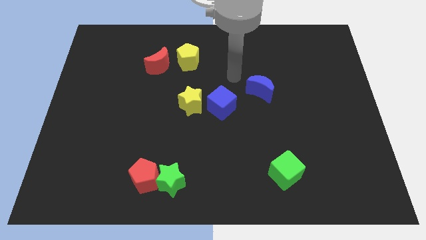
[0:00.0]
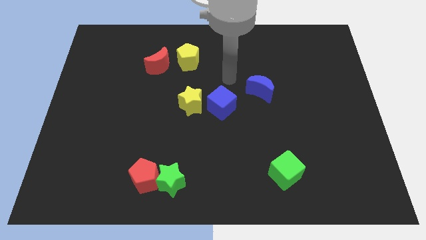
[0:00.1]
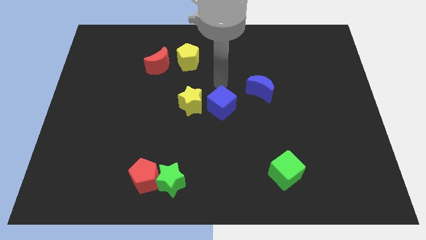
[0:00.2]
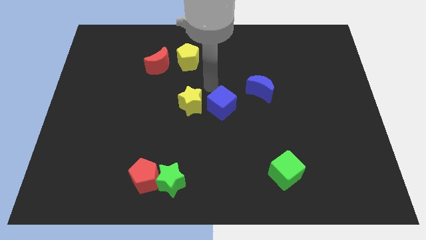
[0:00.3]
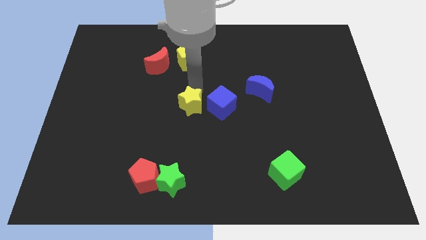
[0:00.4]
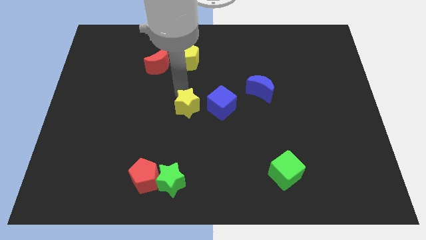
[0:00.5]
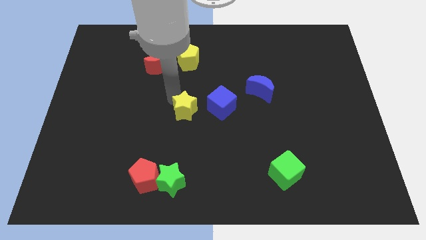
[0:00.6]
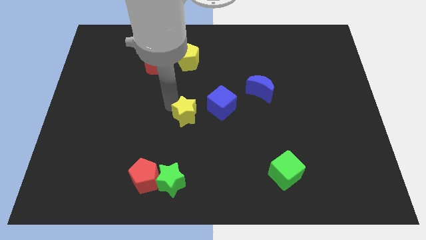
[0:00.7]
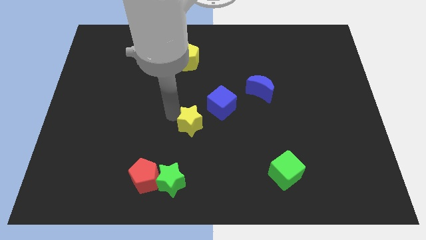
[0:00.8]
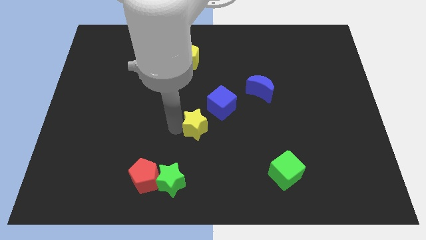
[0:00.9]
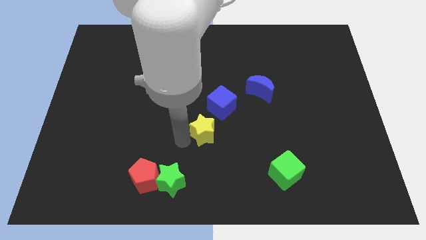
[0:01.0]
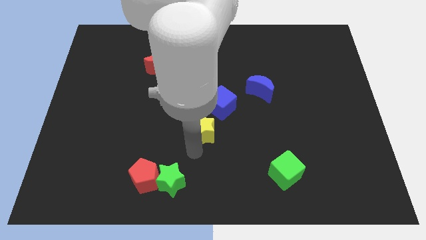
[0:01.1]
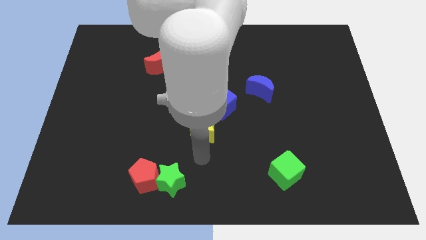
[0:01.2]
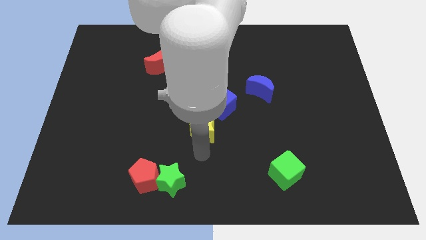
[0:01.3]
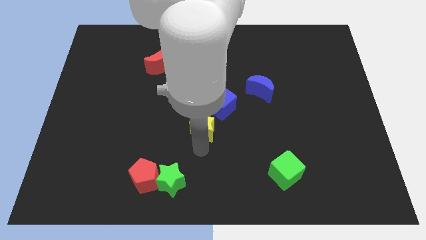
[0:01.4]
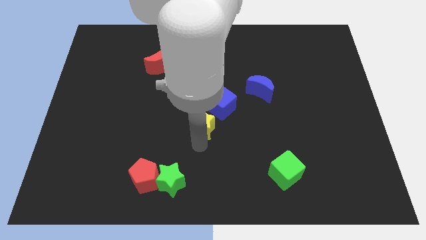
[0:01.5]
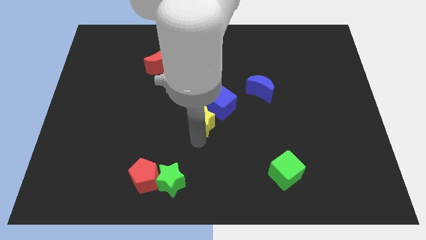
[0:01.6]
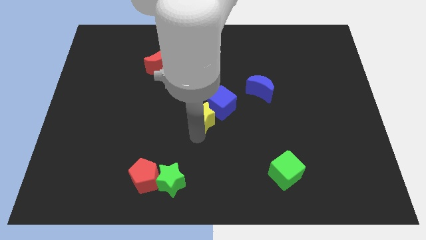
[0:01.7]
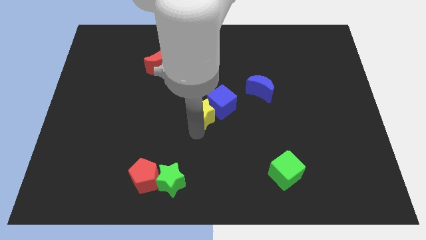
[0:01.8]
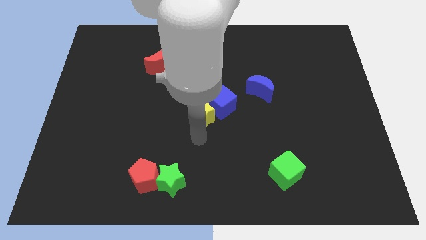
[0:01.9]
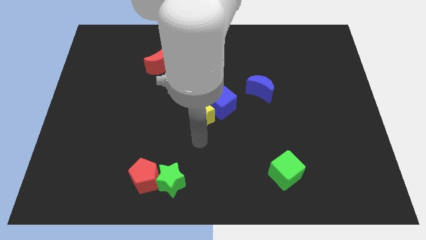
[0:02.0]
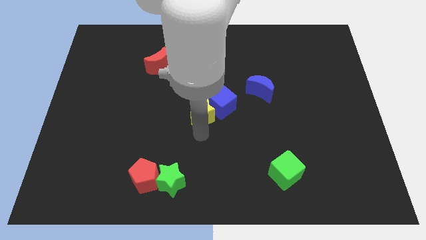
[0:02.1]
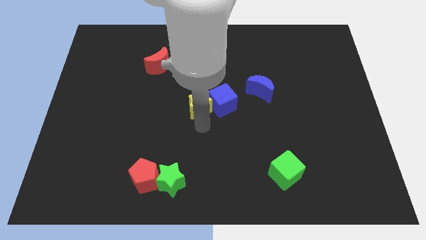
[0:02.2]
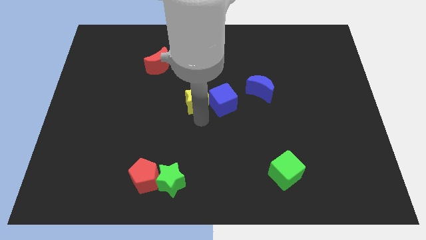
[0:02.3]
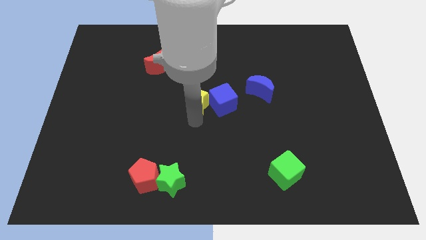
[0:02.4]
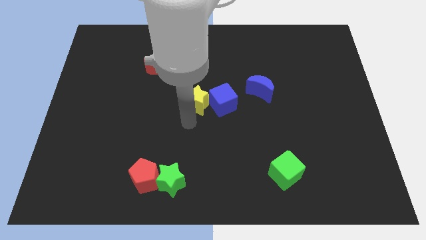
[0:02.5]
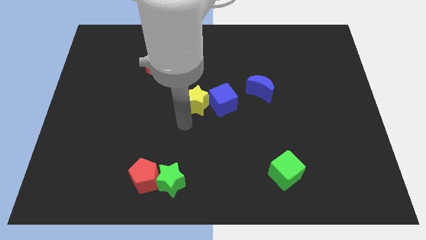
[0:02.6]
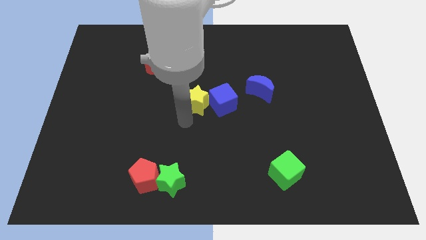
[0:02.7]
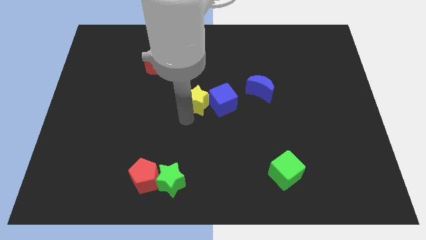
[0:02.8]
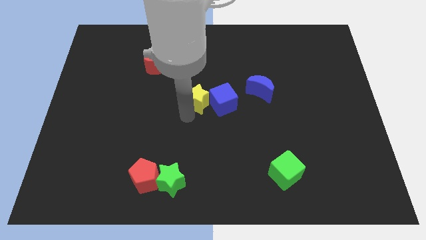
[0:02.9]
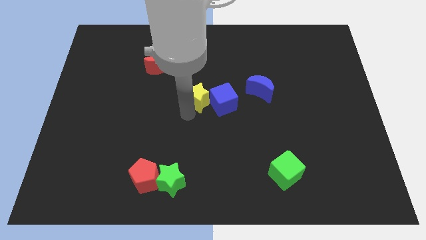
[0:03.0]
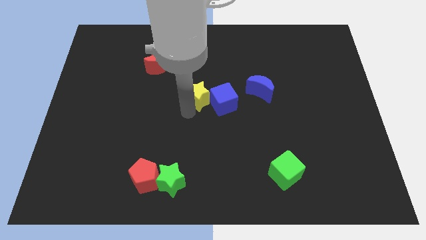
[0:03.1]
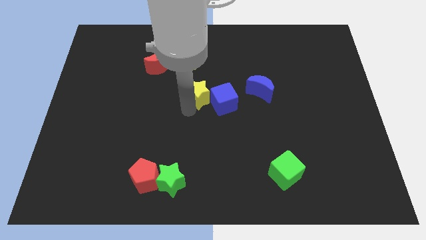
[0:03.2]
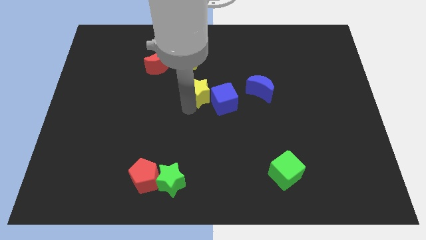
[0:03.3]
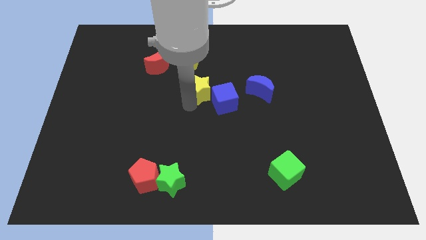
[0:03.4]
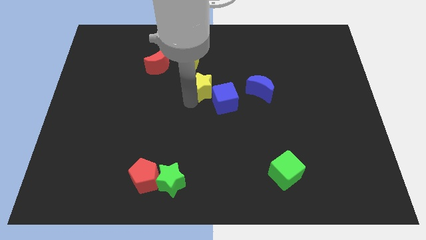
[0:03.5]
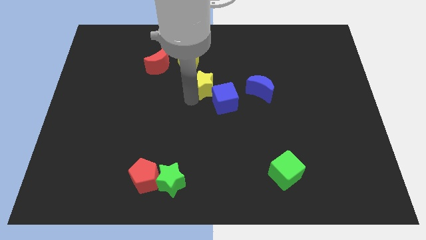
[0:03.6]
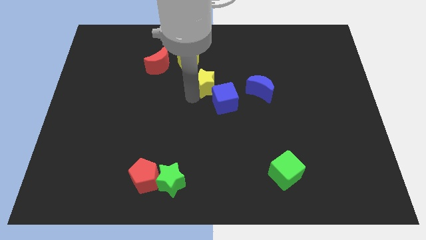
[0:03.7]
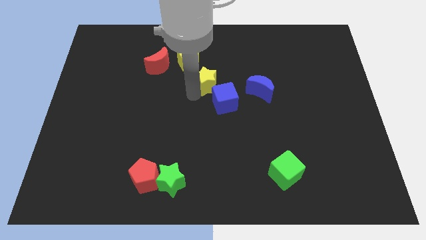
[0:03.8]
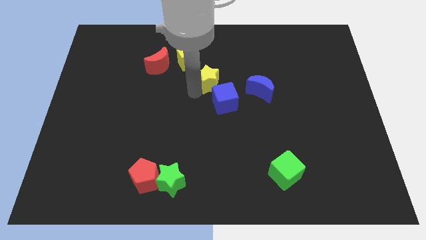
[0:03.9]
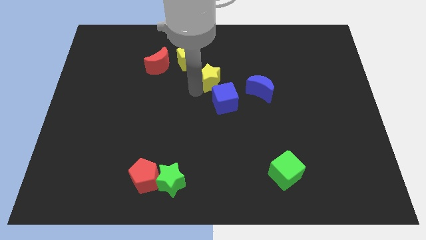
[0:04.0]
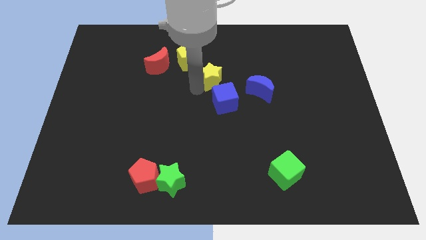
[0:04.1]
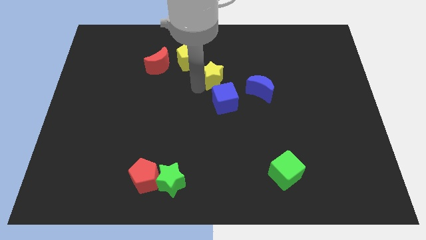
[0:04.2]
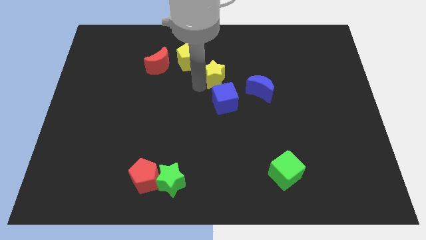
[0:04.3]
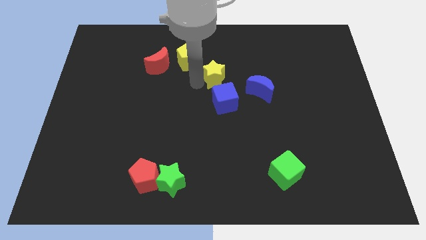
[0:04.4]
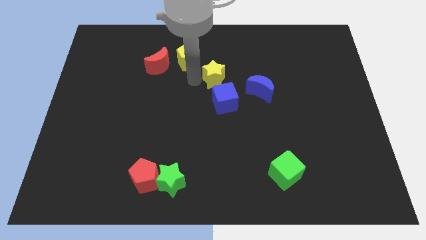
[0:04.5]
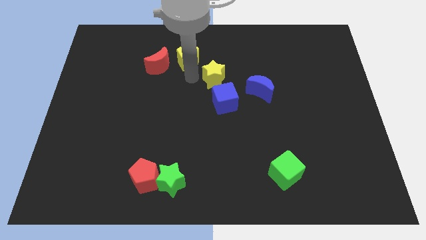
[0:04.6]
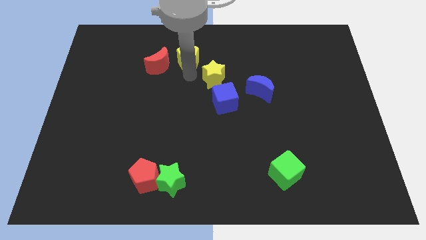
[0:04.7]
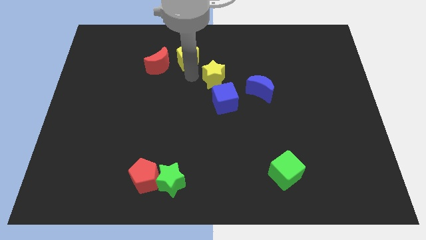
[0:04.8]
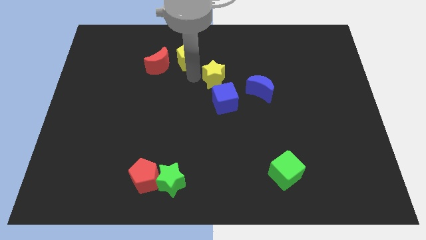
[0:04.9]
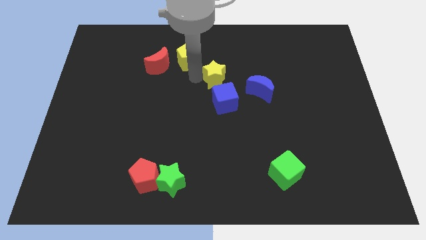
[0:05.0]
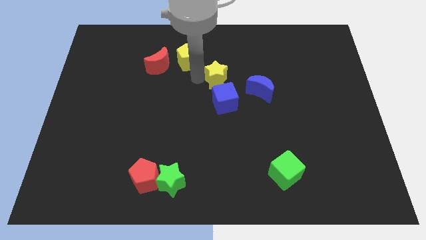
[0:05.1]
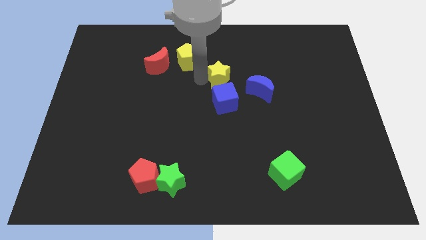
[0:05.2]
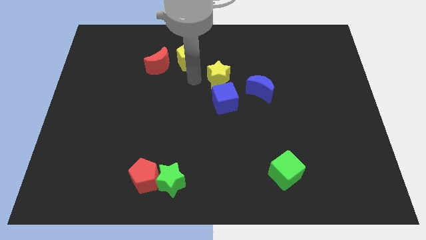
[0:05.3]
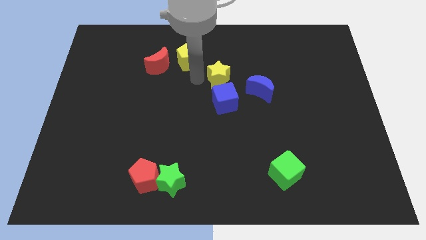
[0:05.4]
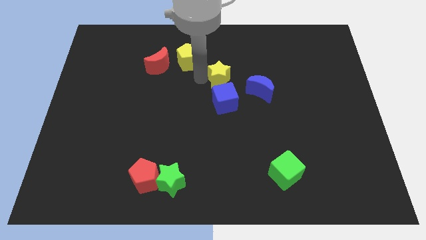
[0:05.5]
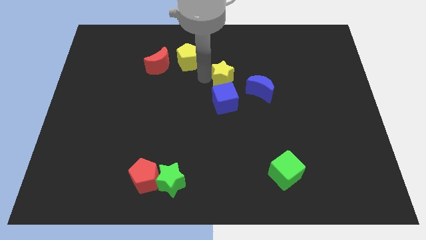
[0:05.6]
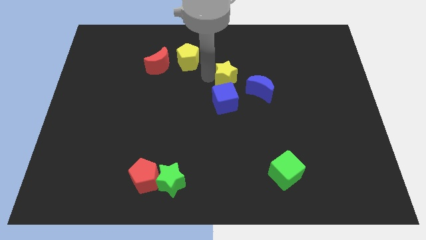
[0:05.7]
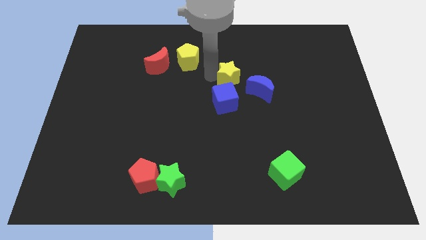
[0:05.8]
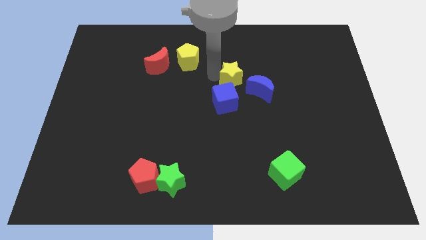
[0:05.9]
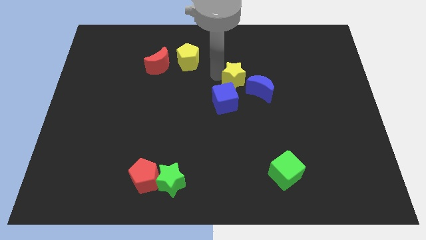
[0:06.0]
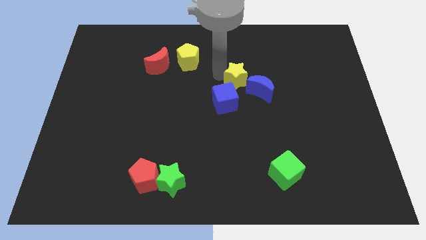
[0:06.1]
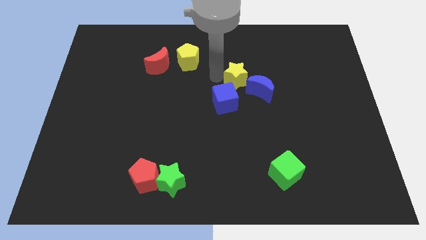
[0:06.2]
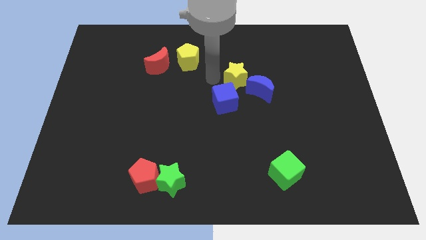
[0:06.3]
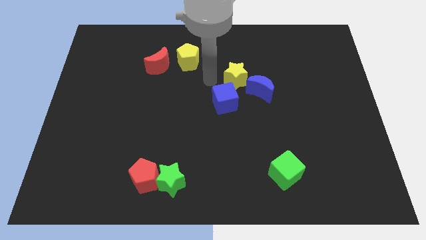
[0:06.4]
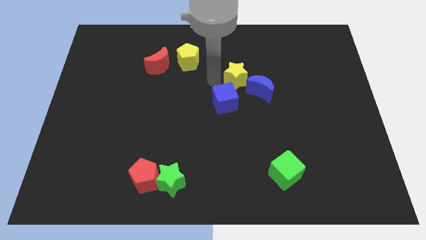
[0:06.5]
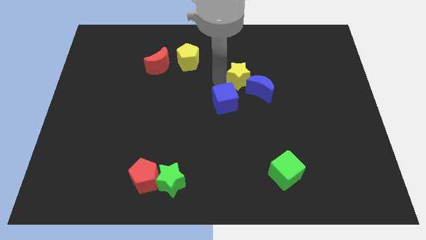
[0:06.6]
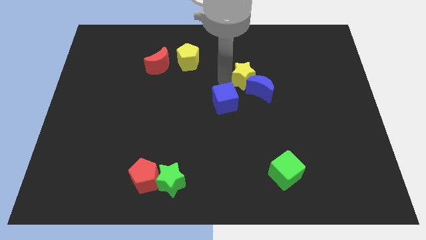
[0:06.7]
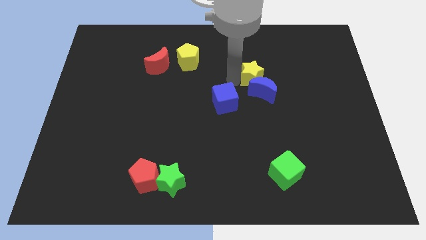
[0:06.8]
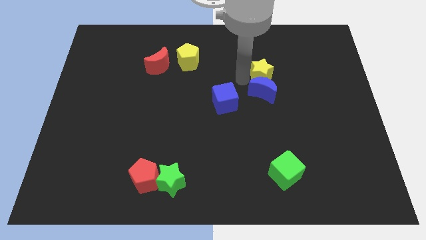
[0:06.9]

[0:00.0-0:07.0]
move the yellow star to the top right of the blue moon
